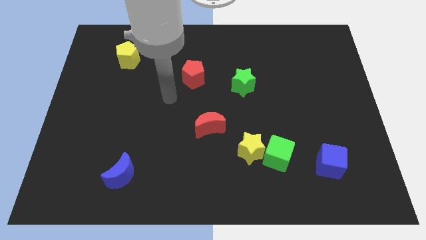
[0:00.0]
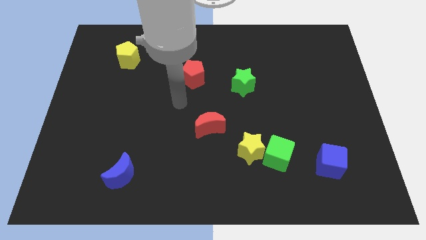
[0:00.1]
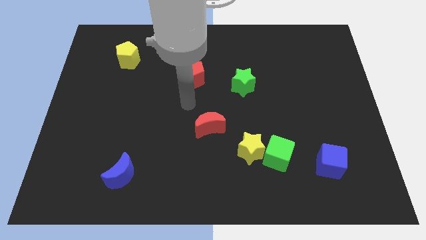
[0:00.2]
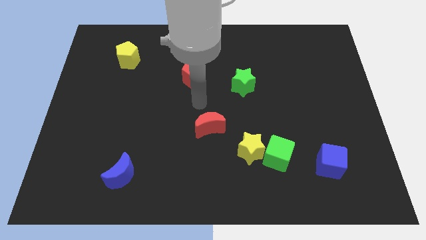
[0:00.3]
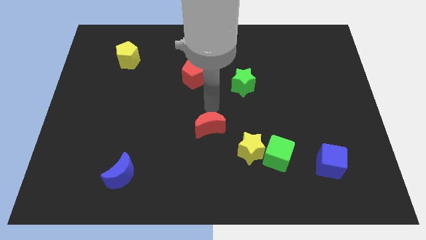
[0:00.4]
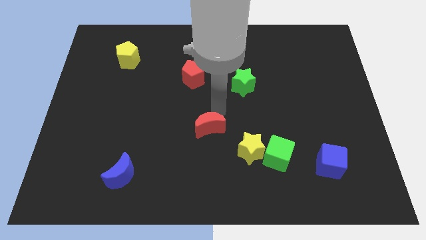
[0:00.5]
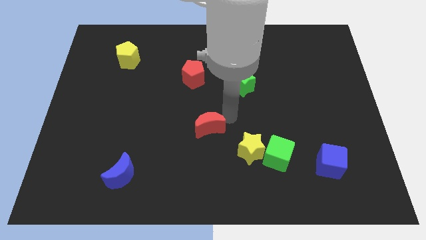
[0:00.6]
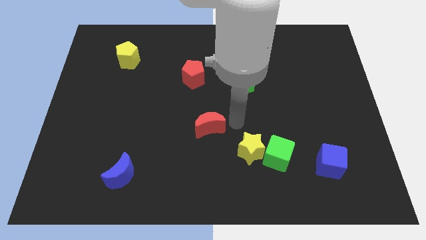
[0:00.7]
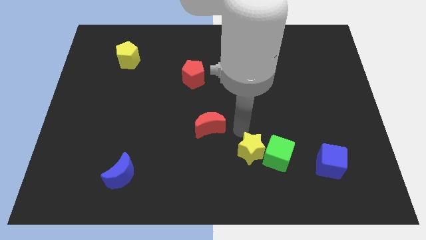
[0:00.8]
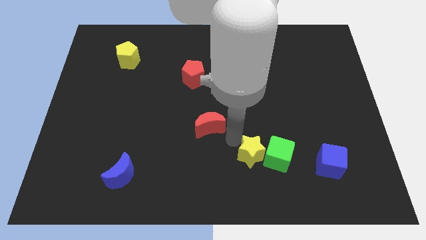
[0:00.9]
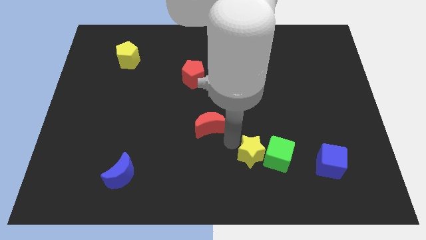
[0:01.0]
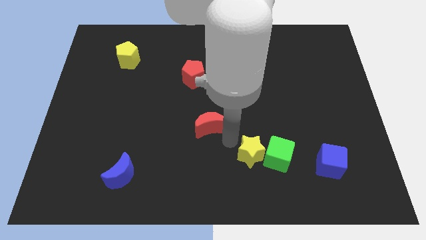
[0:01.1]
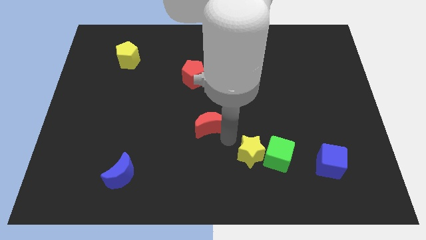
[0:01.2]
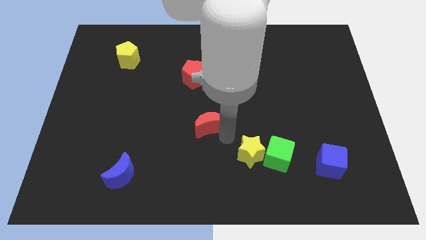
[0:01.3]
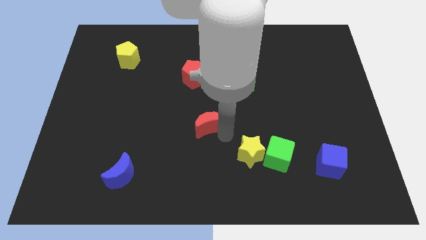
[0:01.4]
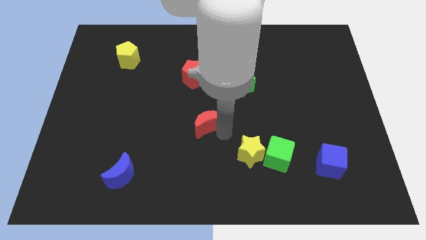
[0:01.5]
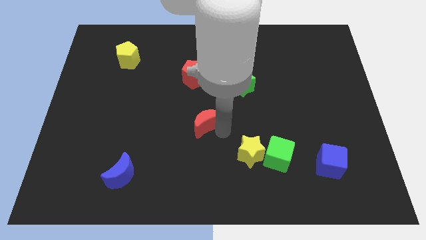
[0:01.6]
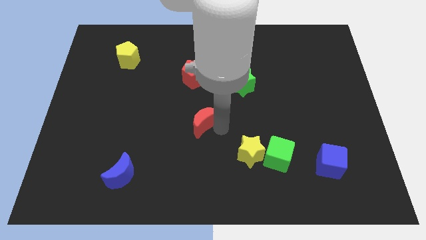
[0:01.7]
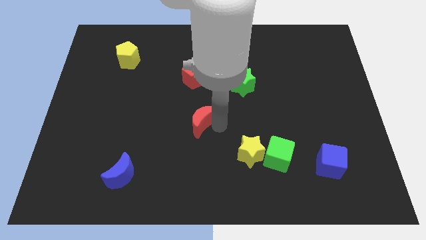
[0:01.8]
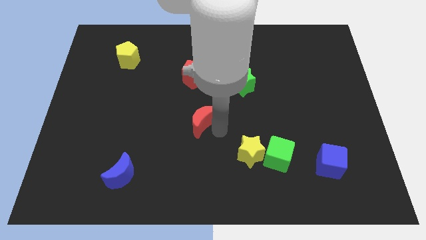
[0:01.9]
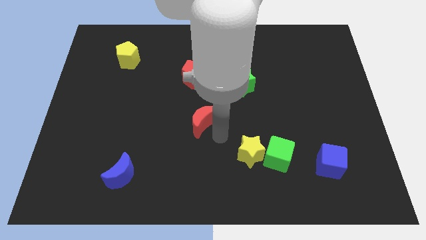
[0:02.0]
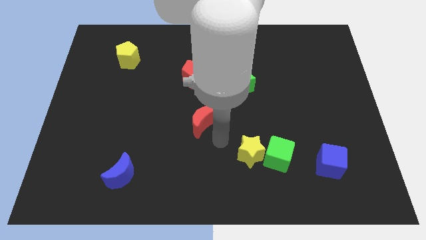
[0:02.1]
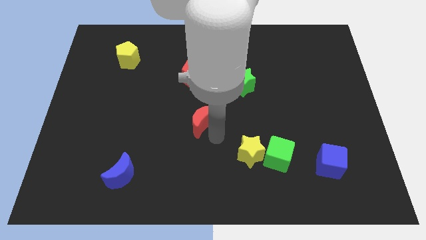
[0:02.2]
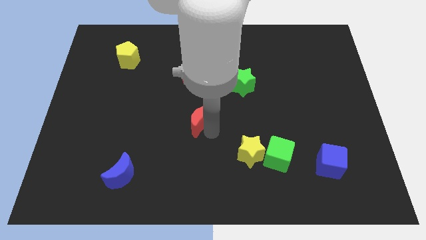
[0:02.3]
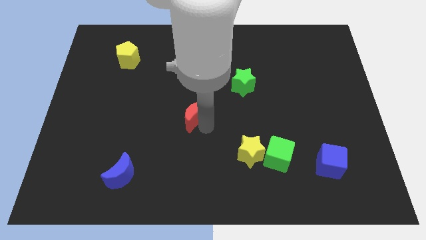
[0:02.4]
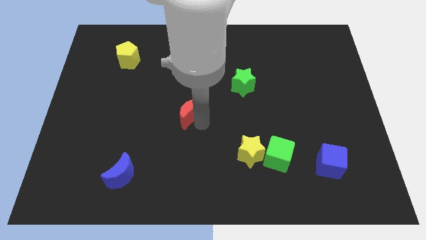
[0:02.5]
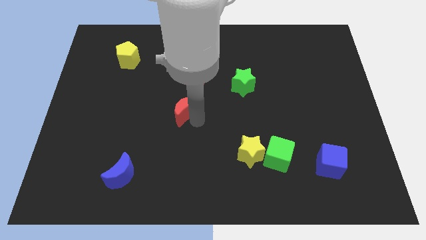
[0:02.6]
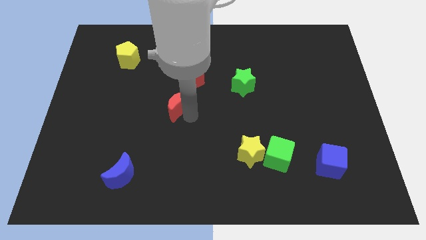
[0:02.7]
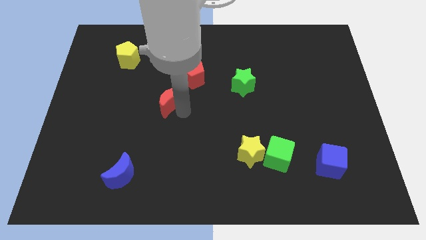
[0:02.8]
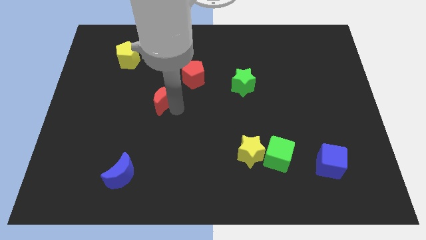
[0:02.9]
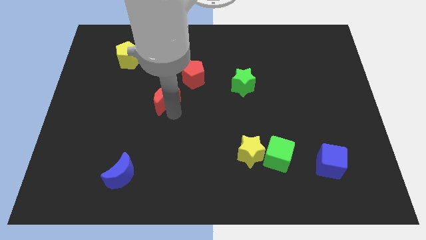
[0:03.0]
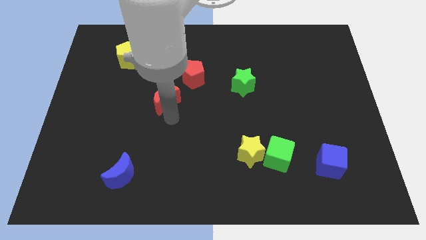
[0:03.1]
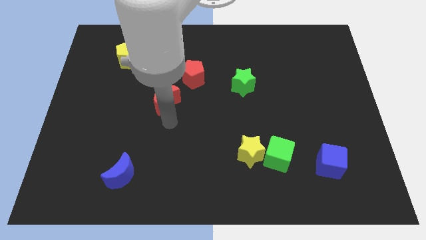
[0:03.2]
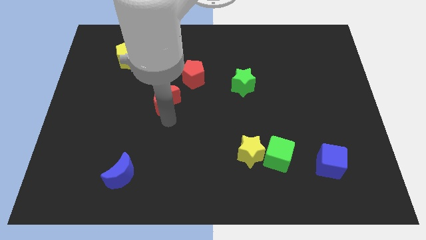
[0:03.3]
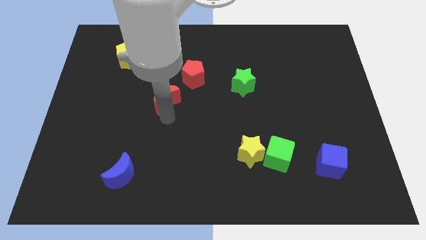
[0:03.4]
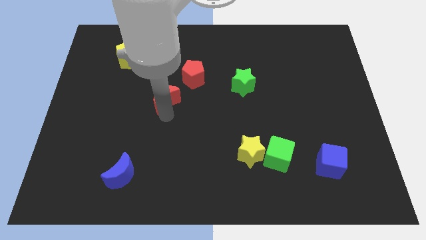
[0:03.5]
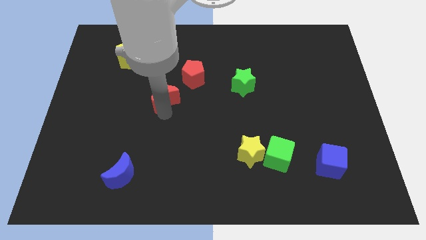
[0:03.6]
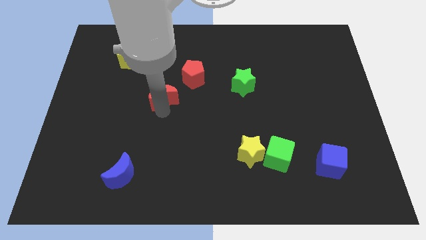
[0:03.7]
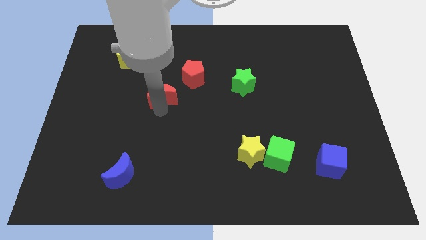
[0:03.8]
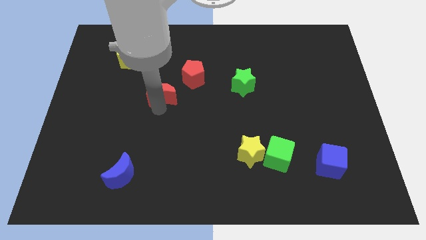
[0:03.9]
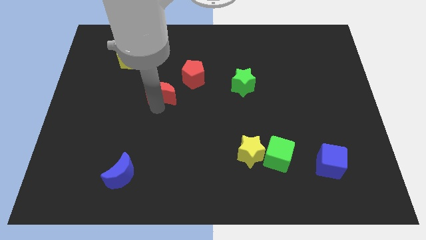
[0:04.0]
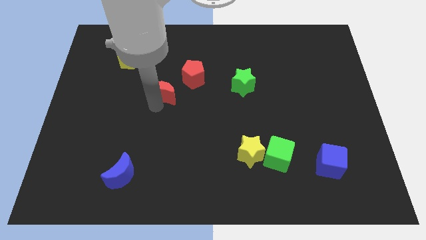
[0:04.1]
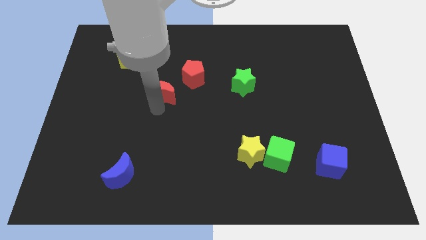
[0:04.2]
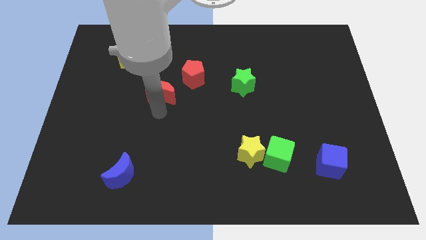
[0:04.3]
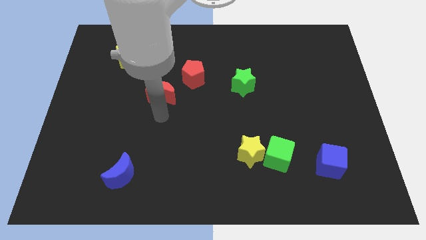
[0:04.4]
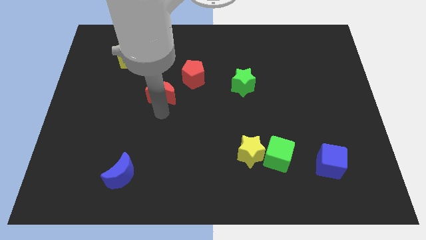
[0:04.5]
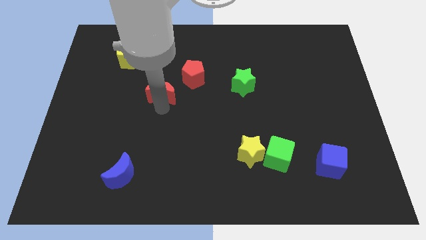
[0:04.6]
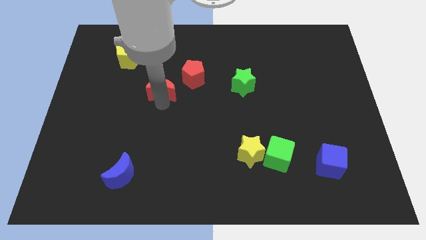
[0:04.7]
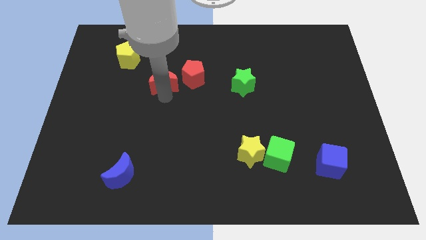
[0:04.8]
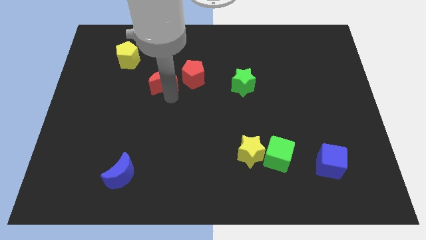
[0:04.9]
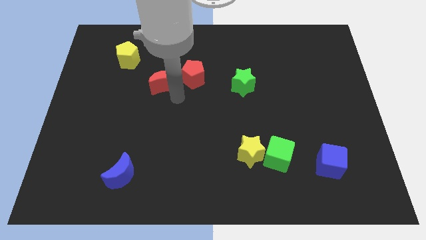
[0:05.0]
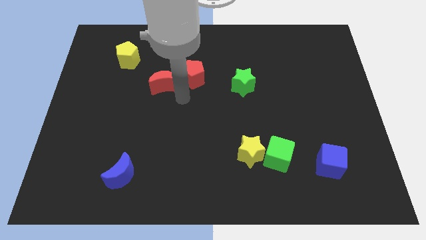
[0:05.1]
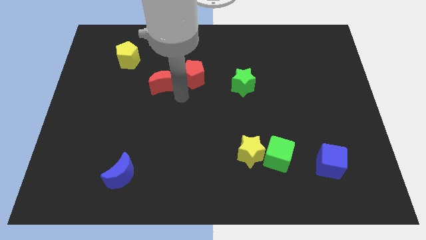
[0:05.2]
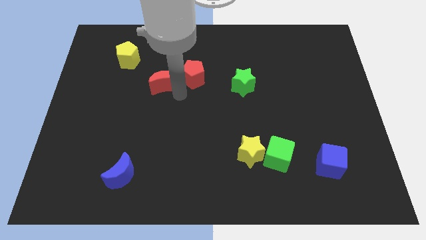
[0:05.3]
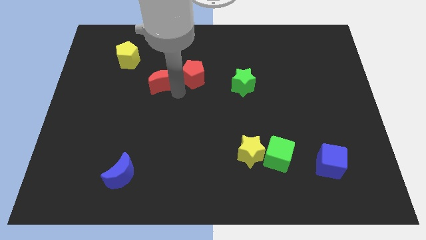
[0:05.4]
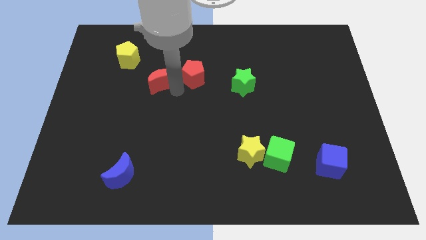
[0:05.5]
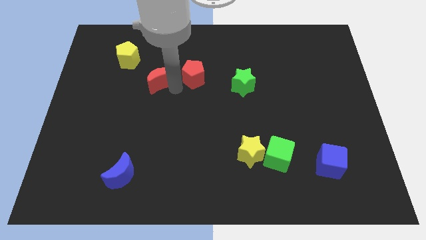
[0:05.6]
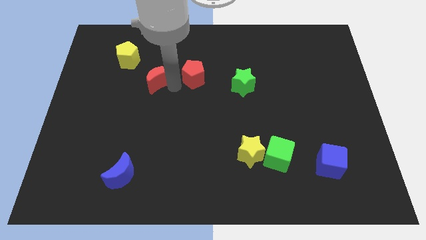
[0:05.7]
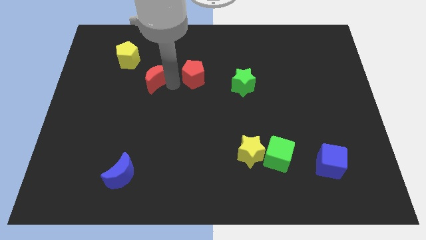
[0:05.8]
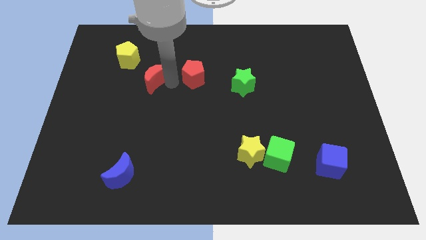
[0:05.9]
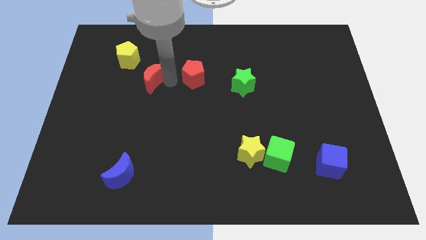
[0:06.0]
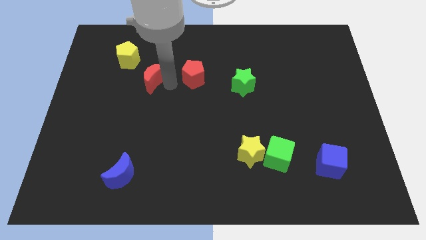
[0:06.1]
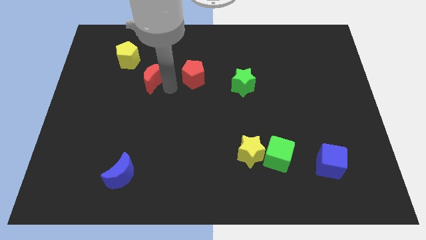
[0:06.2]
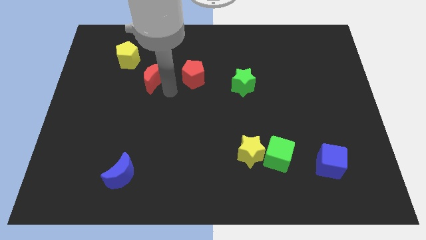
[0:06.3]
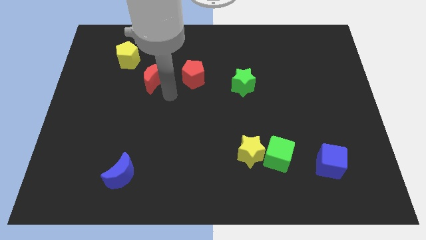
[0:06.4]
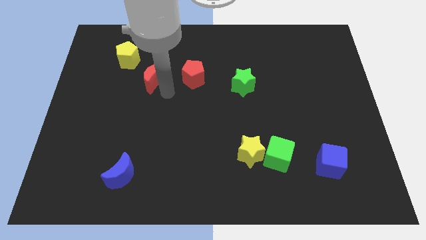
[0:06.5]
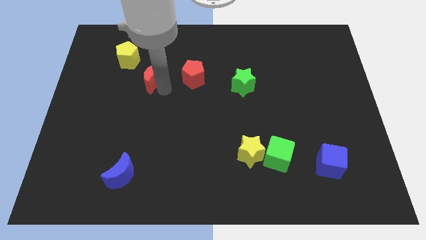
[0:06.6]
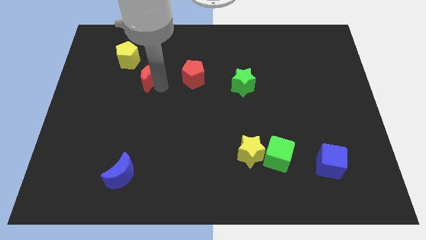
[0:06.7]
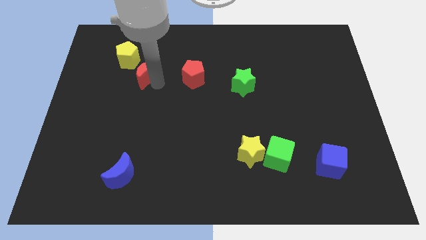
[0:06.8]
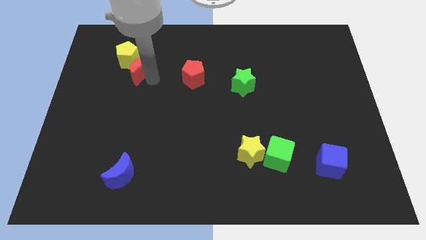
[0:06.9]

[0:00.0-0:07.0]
move the red moon next to the yellow pentagon

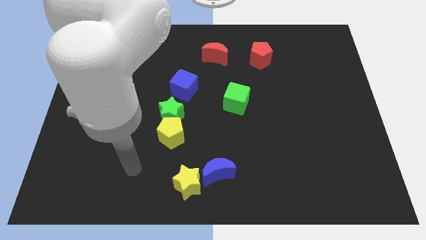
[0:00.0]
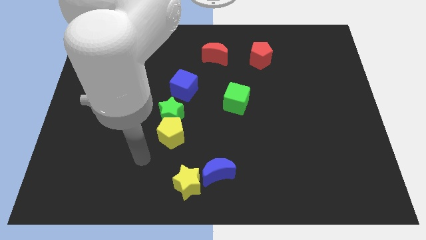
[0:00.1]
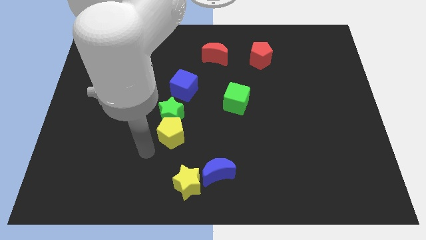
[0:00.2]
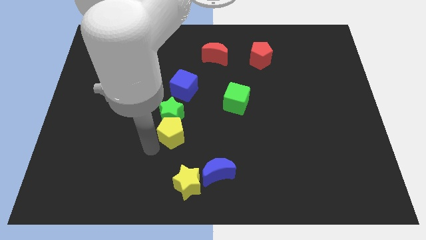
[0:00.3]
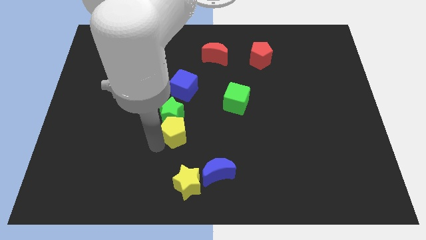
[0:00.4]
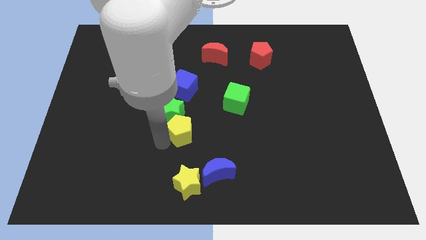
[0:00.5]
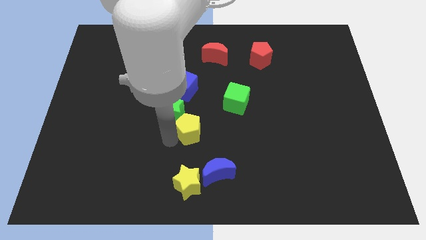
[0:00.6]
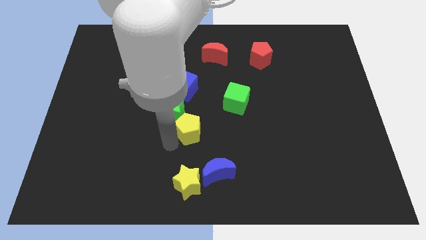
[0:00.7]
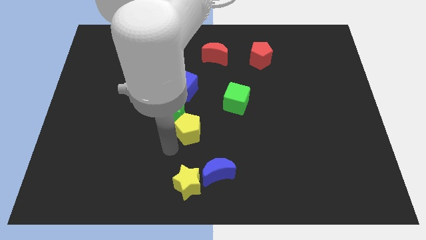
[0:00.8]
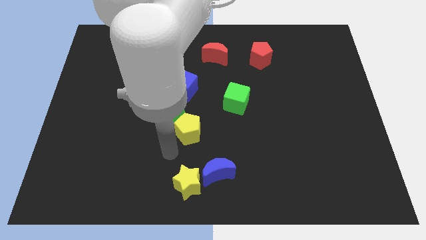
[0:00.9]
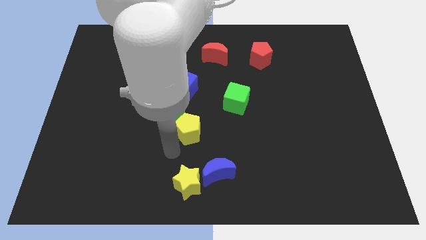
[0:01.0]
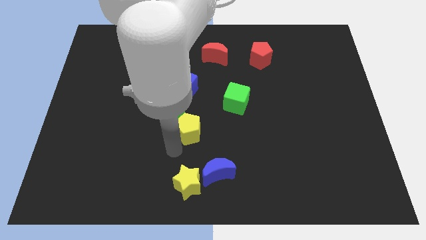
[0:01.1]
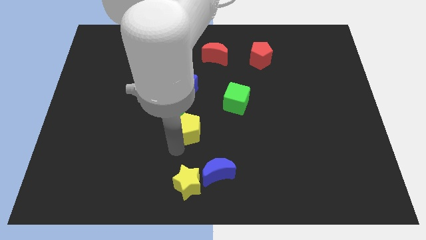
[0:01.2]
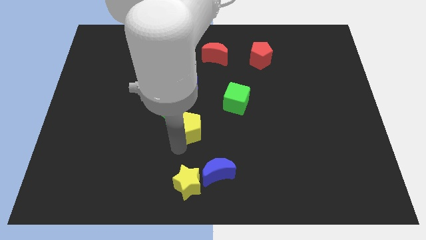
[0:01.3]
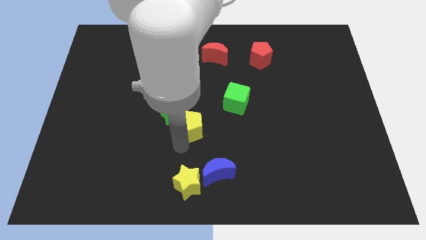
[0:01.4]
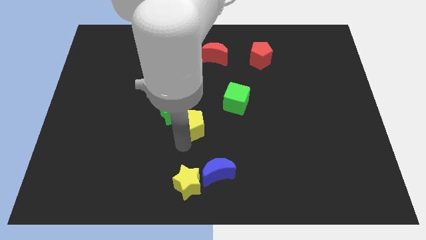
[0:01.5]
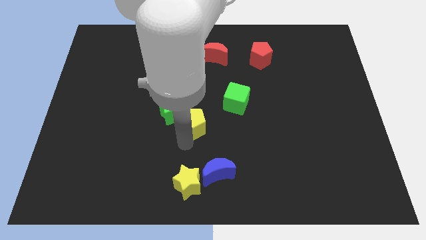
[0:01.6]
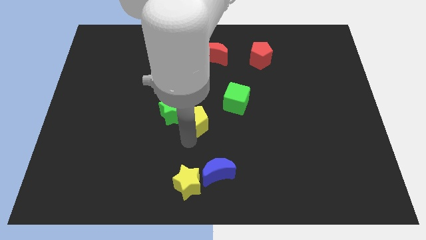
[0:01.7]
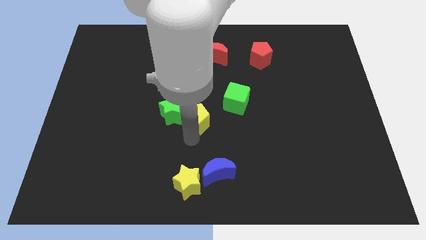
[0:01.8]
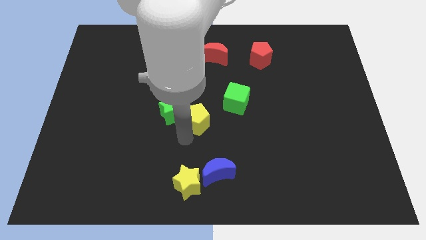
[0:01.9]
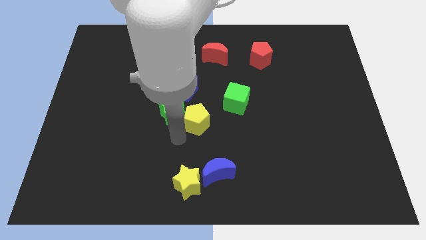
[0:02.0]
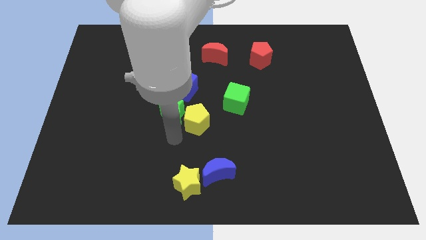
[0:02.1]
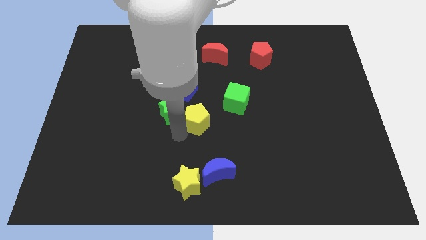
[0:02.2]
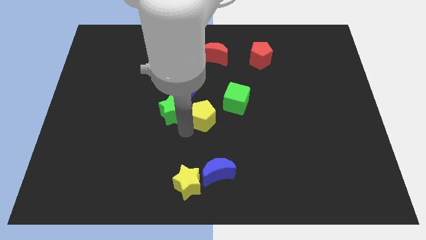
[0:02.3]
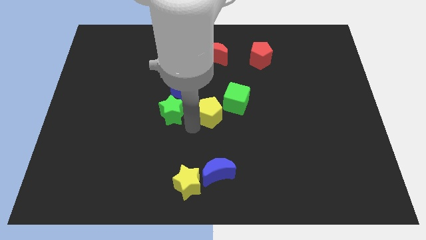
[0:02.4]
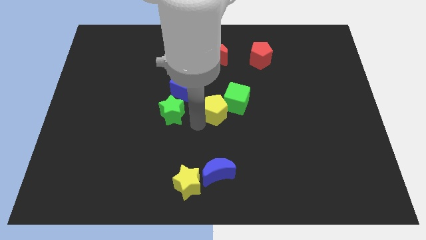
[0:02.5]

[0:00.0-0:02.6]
slide the yellow pentagon close to the green cube
